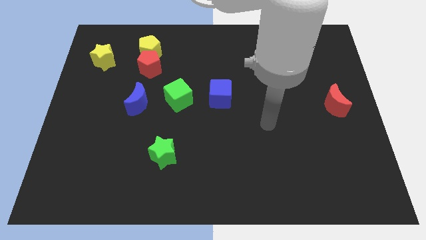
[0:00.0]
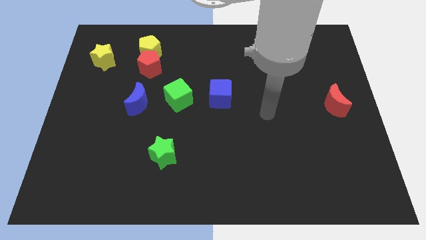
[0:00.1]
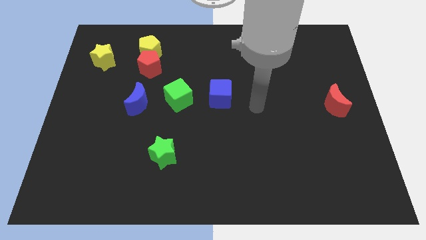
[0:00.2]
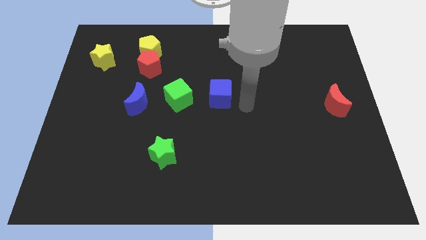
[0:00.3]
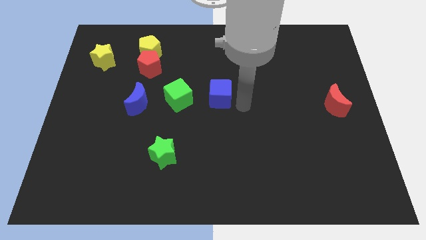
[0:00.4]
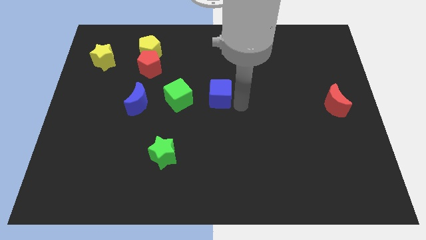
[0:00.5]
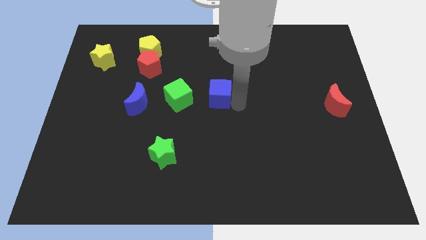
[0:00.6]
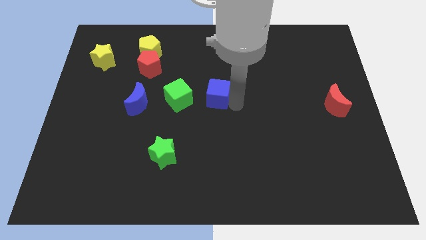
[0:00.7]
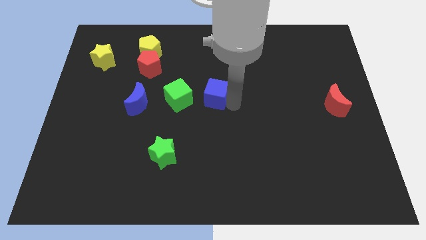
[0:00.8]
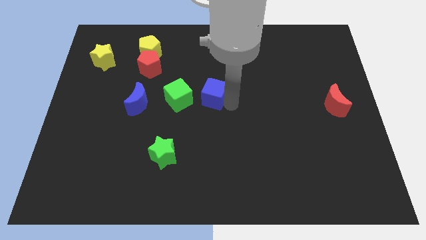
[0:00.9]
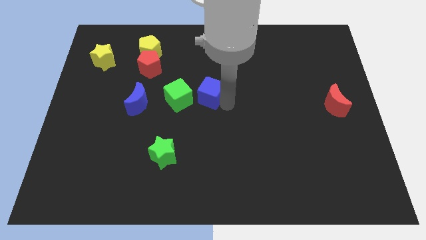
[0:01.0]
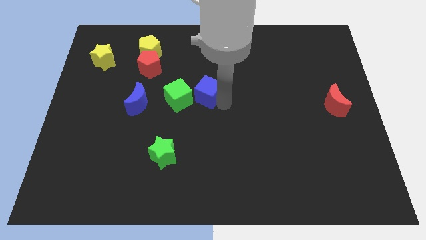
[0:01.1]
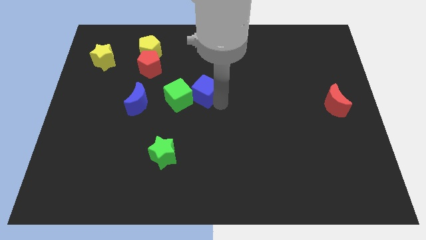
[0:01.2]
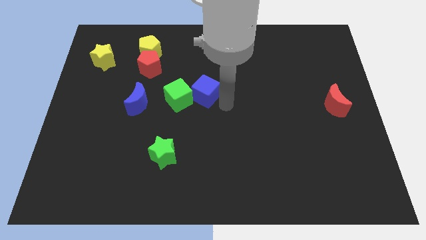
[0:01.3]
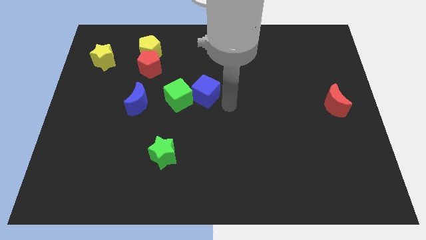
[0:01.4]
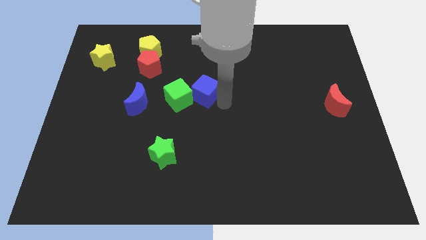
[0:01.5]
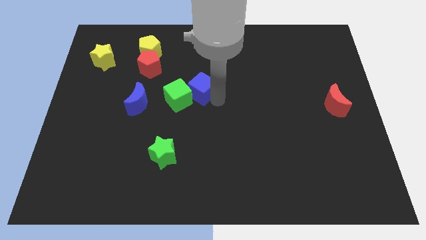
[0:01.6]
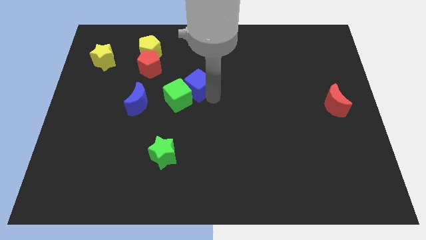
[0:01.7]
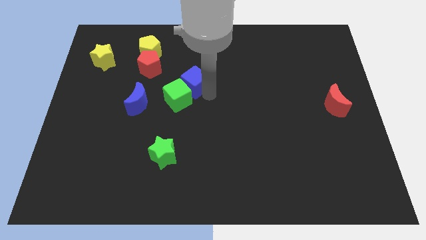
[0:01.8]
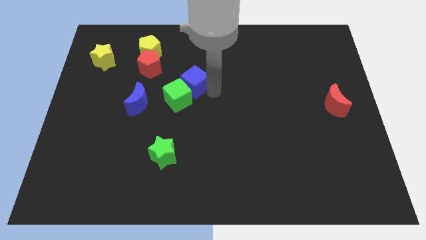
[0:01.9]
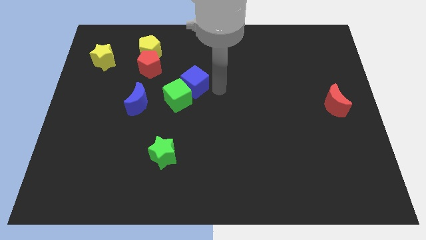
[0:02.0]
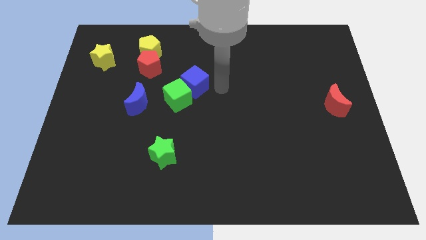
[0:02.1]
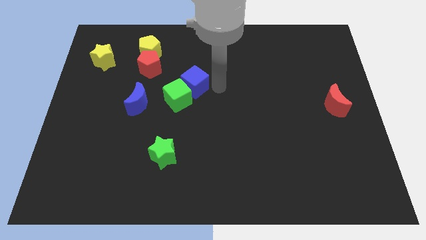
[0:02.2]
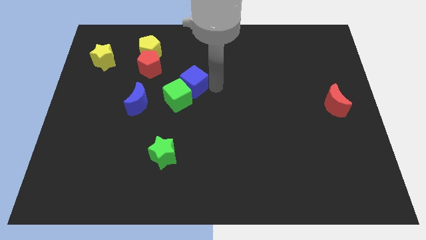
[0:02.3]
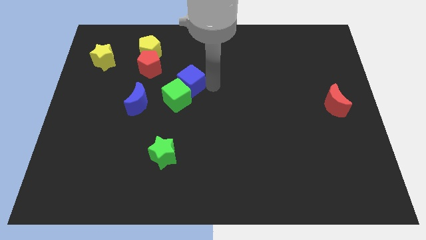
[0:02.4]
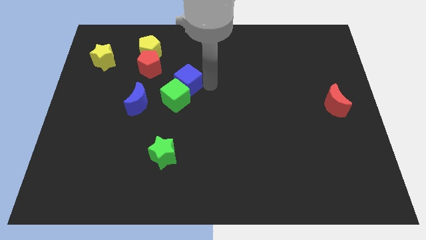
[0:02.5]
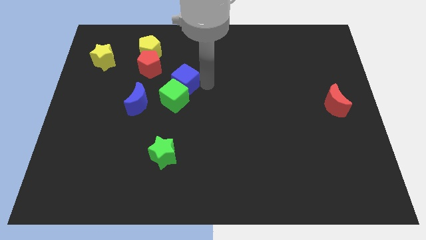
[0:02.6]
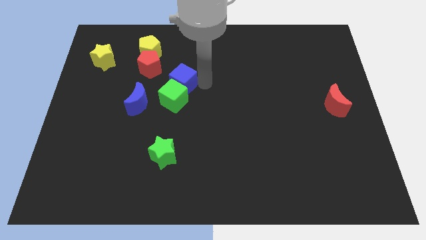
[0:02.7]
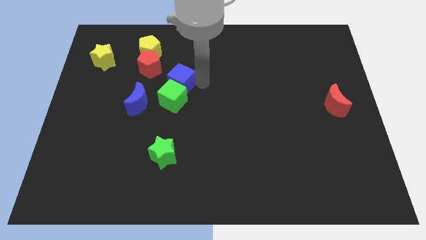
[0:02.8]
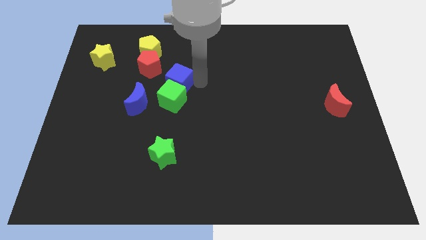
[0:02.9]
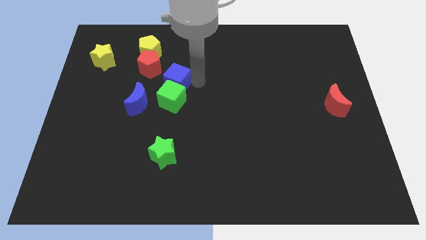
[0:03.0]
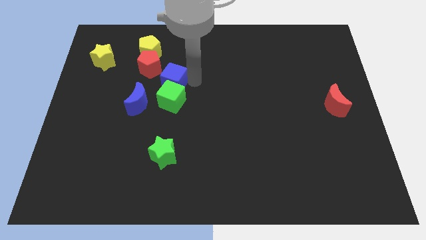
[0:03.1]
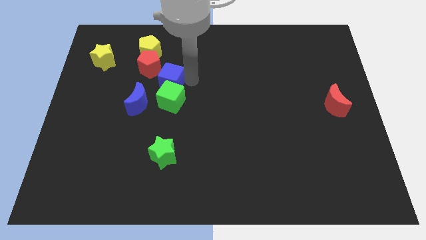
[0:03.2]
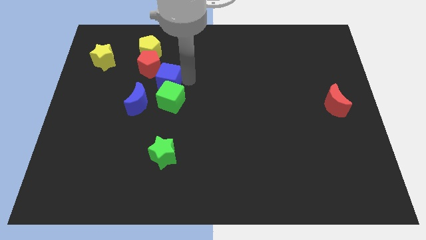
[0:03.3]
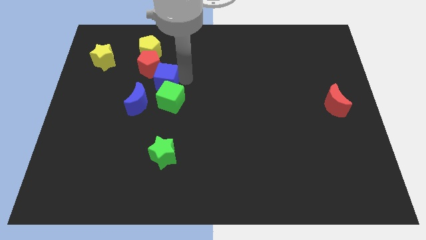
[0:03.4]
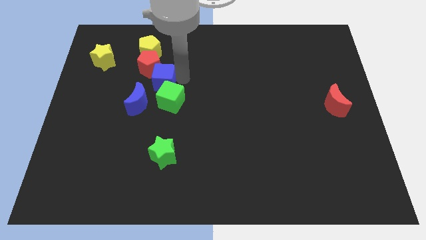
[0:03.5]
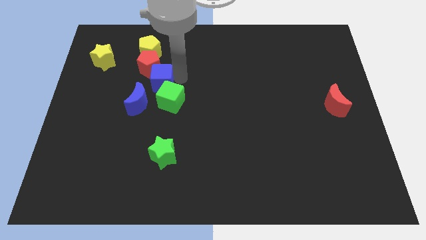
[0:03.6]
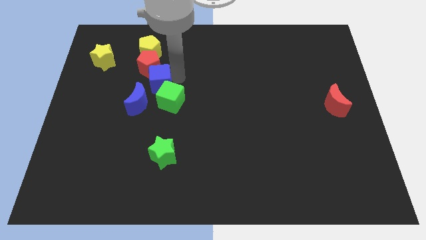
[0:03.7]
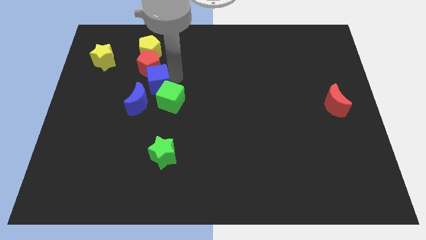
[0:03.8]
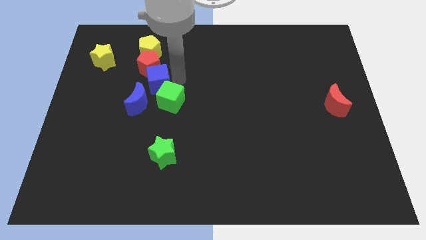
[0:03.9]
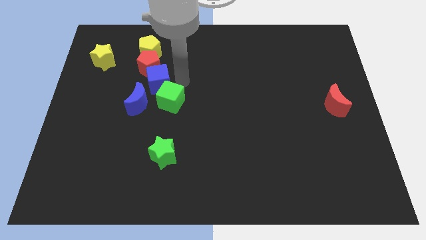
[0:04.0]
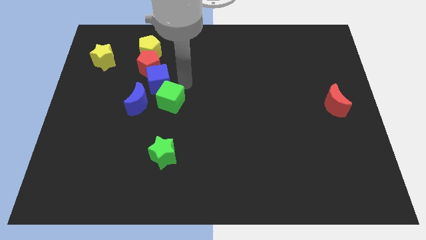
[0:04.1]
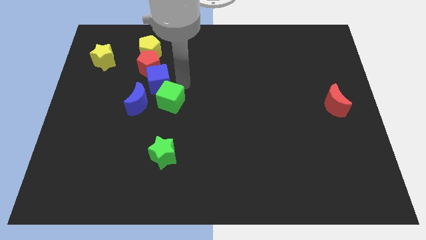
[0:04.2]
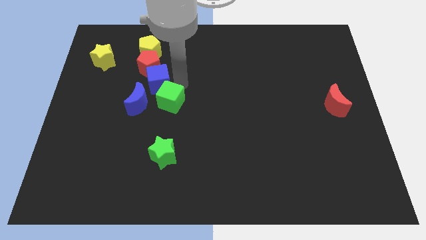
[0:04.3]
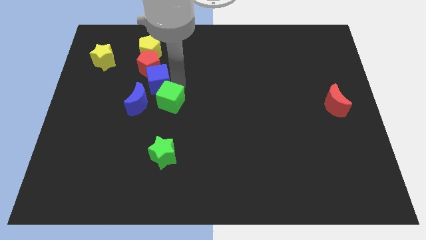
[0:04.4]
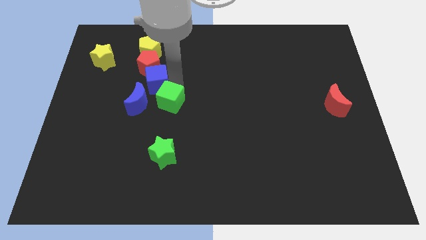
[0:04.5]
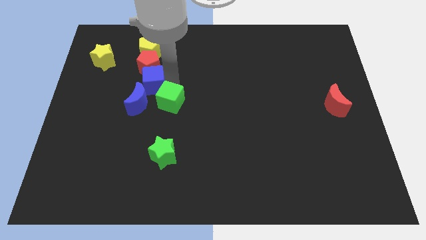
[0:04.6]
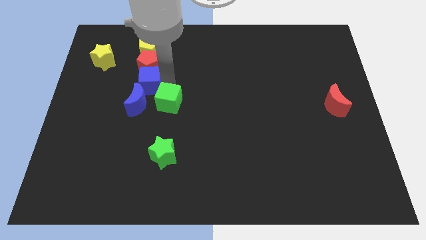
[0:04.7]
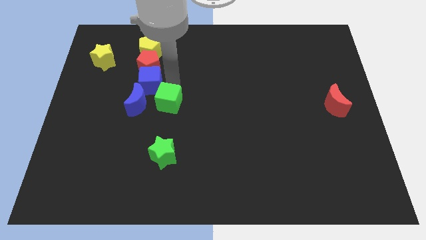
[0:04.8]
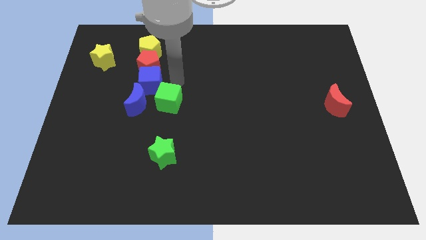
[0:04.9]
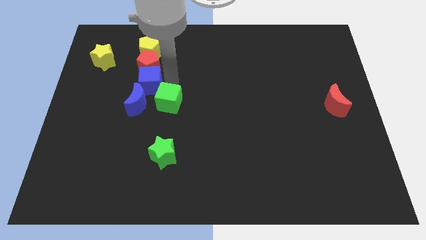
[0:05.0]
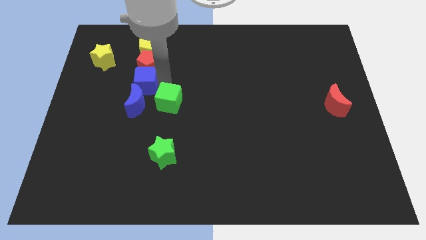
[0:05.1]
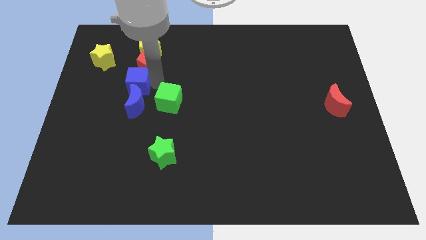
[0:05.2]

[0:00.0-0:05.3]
slide the blue cube to the top left of the blue moon
